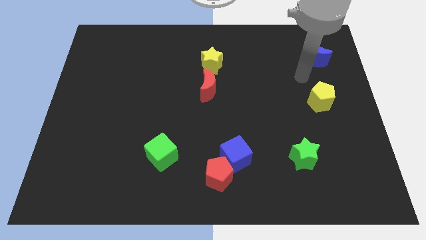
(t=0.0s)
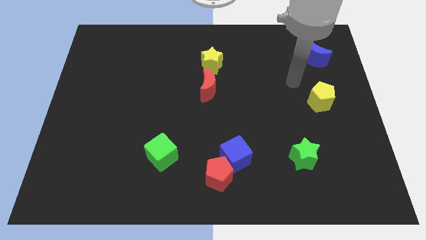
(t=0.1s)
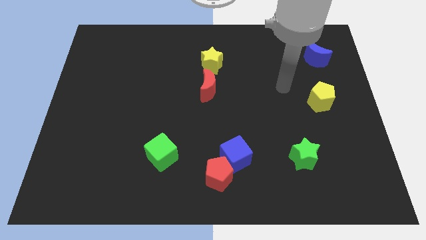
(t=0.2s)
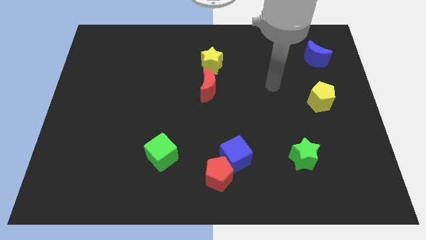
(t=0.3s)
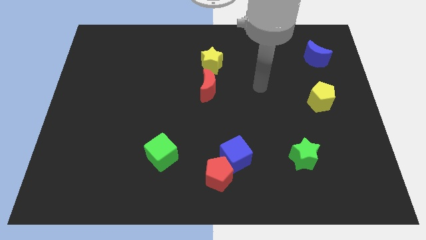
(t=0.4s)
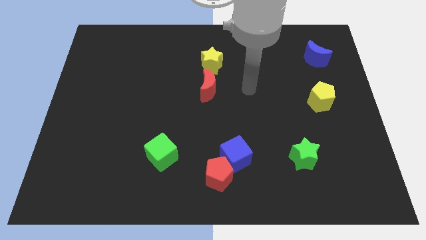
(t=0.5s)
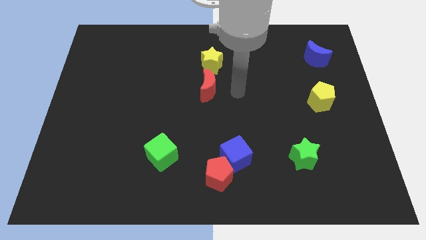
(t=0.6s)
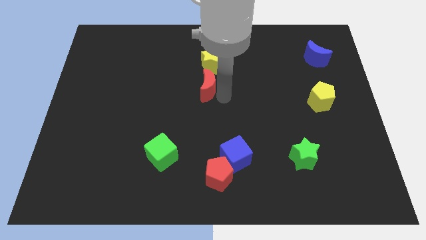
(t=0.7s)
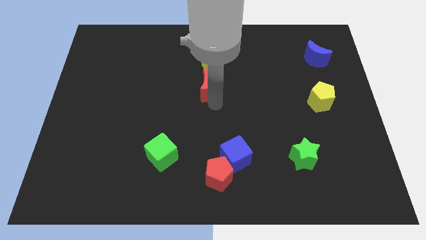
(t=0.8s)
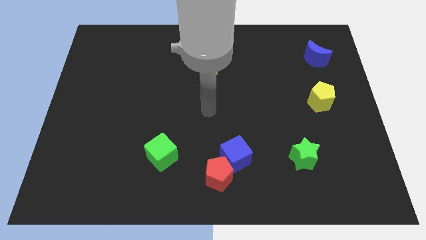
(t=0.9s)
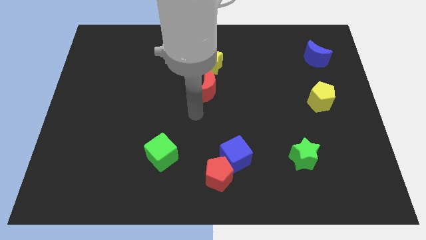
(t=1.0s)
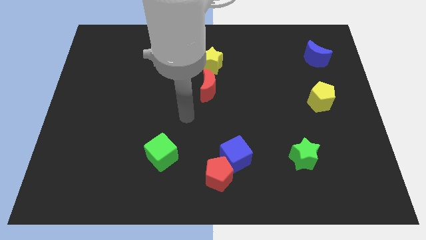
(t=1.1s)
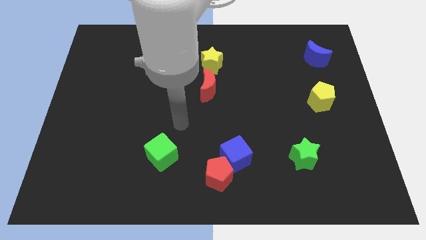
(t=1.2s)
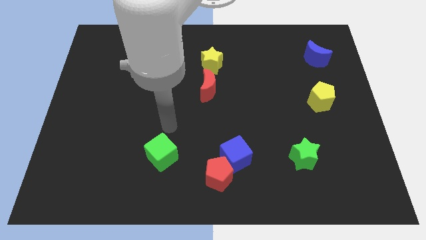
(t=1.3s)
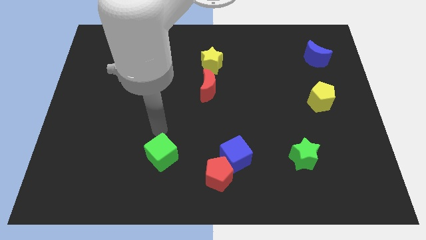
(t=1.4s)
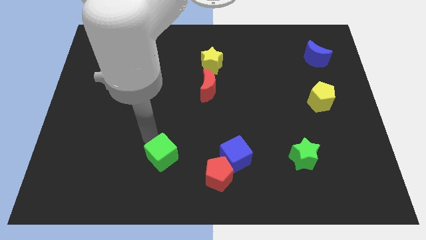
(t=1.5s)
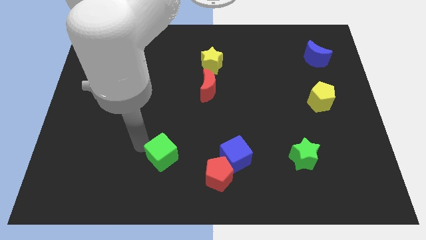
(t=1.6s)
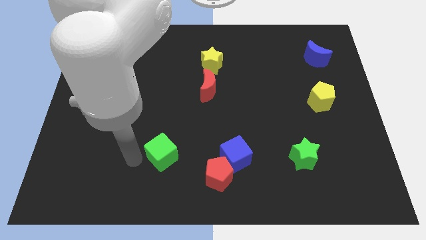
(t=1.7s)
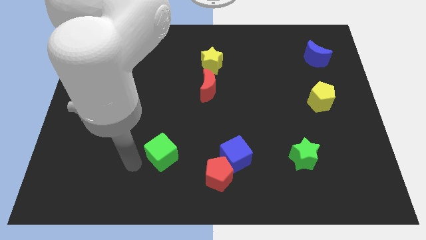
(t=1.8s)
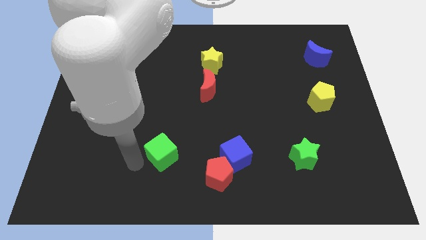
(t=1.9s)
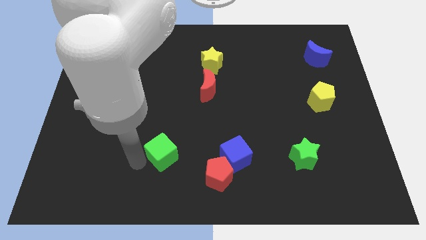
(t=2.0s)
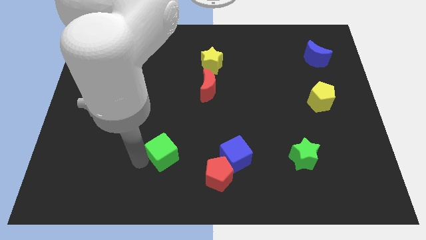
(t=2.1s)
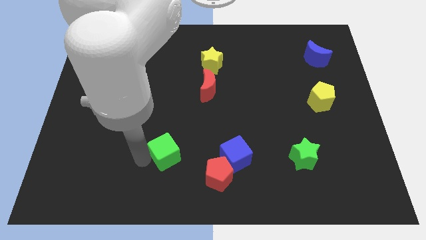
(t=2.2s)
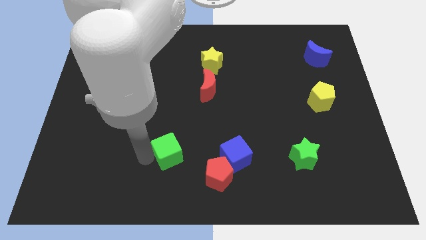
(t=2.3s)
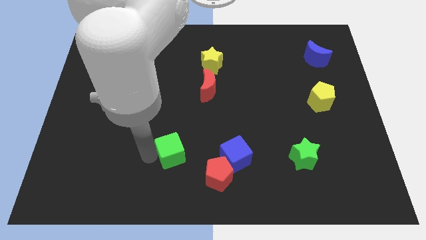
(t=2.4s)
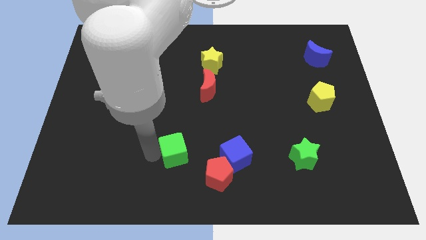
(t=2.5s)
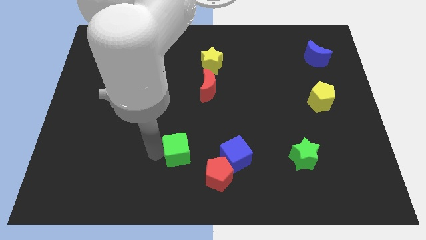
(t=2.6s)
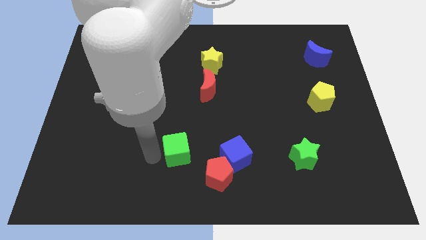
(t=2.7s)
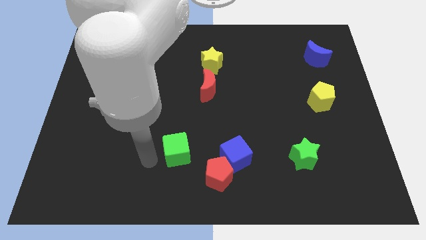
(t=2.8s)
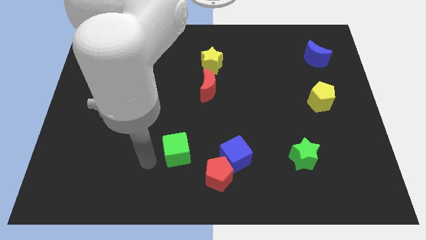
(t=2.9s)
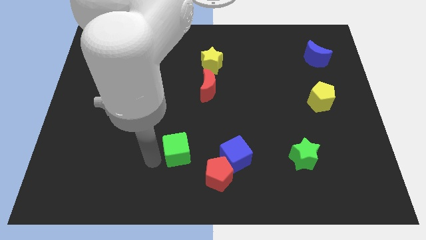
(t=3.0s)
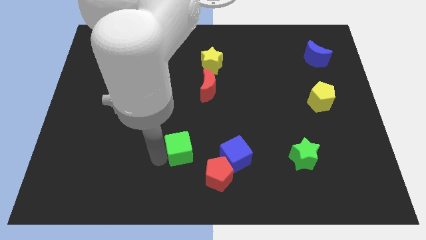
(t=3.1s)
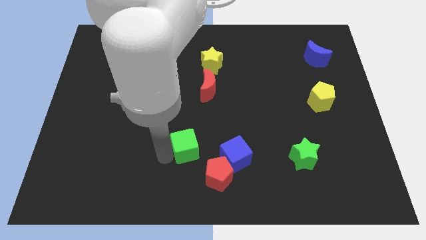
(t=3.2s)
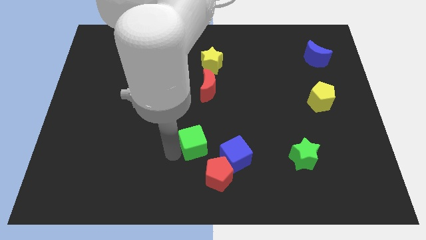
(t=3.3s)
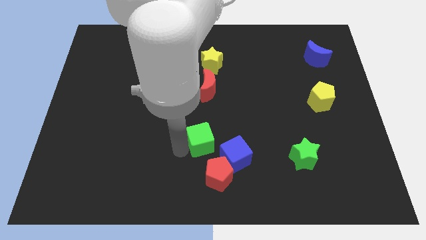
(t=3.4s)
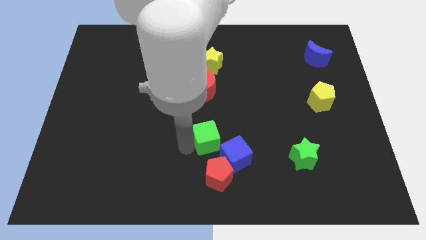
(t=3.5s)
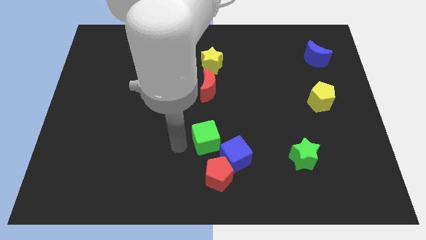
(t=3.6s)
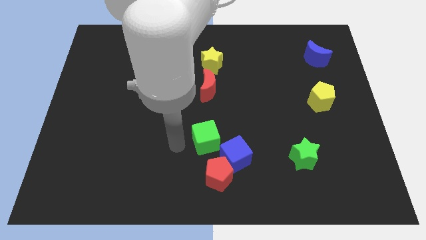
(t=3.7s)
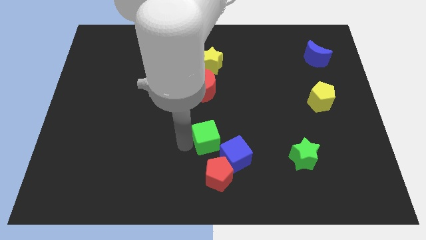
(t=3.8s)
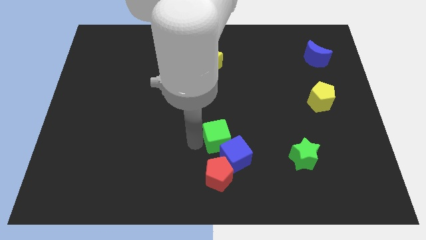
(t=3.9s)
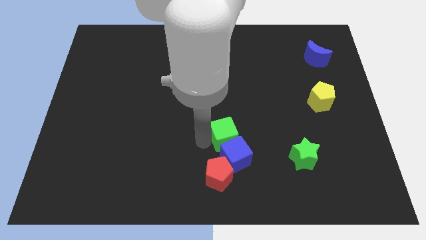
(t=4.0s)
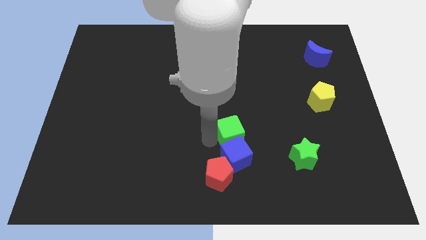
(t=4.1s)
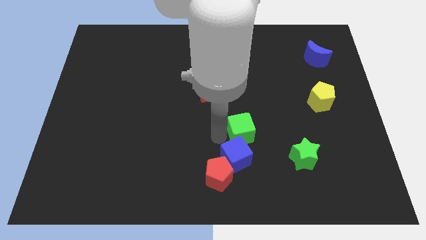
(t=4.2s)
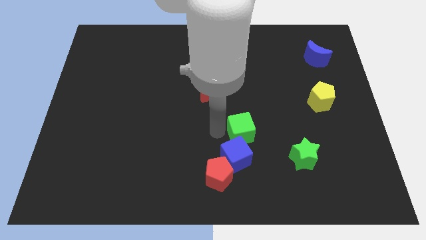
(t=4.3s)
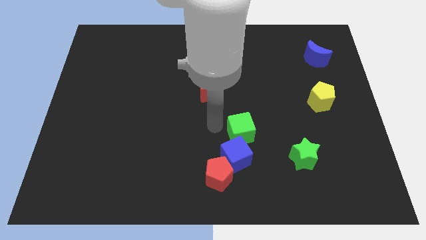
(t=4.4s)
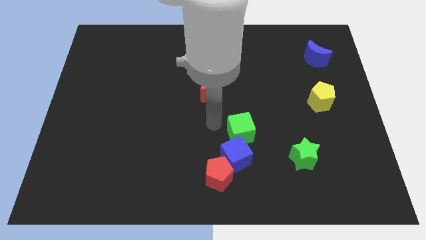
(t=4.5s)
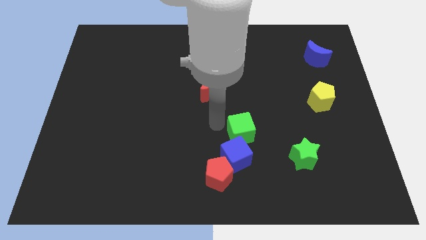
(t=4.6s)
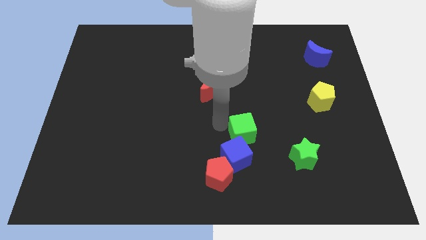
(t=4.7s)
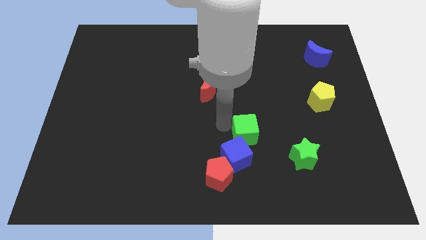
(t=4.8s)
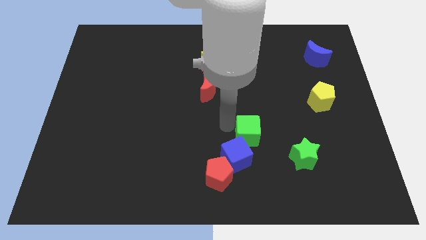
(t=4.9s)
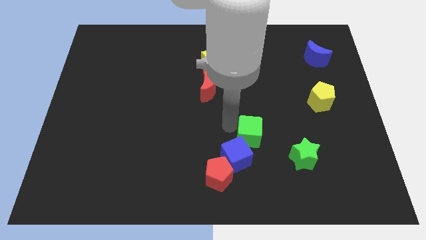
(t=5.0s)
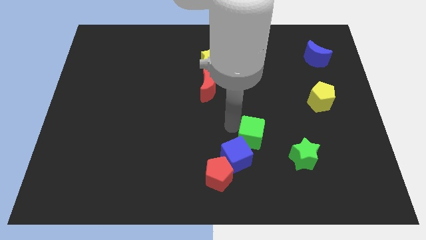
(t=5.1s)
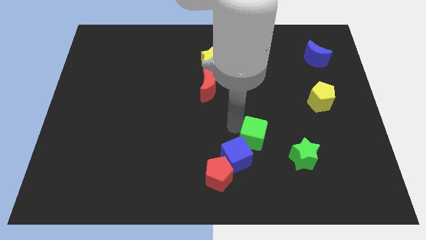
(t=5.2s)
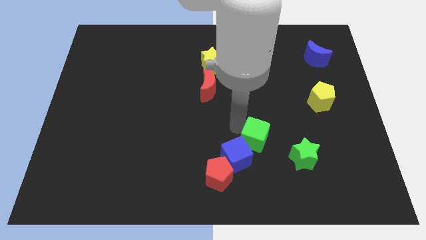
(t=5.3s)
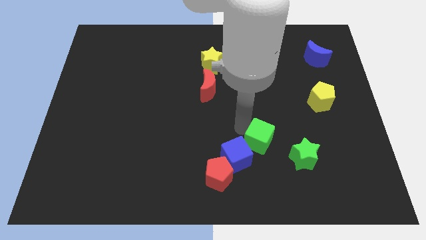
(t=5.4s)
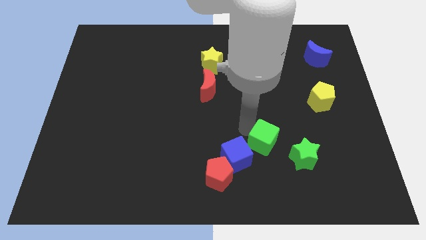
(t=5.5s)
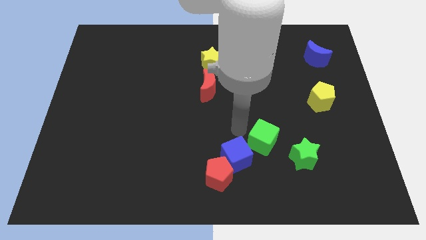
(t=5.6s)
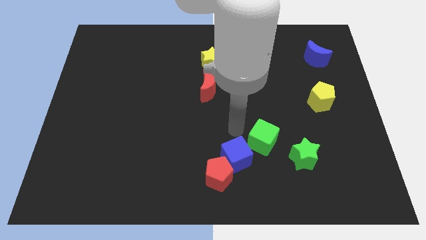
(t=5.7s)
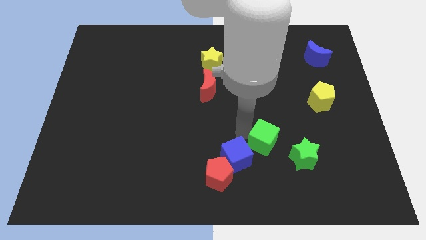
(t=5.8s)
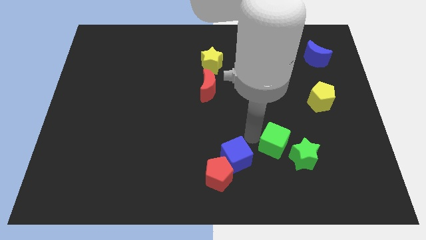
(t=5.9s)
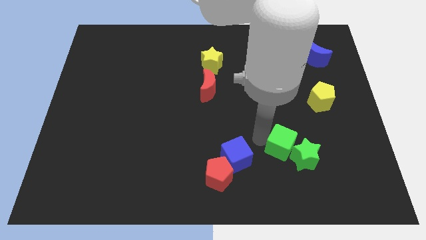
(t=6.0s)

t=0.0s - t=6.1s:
push the green cube towards the green star

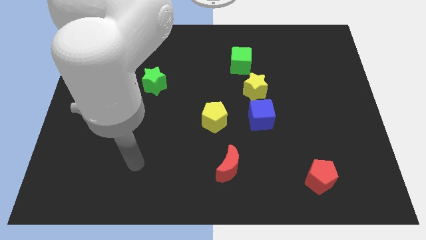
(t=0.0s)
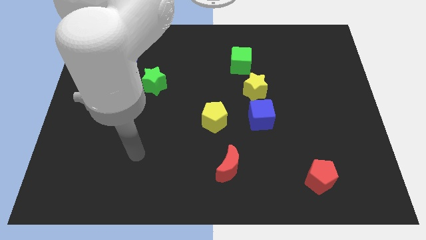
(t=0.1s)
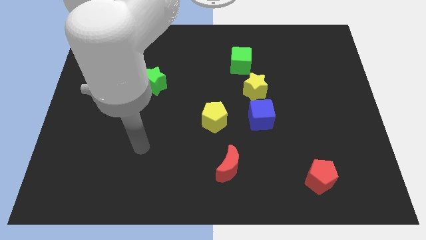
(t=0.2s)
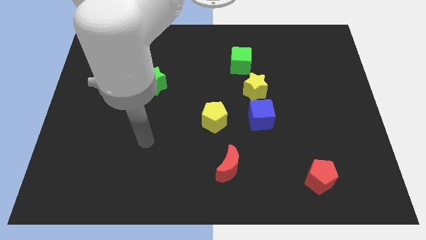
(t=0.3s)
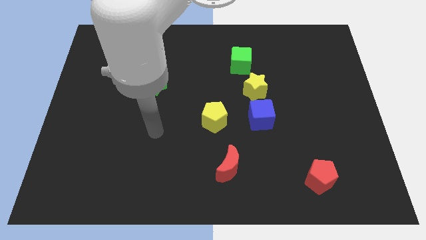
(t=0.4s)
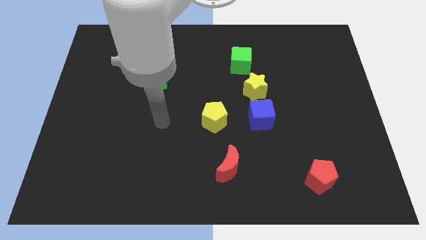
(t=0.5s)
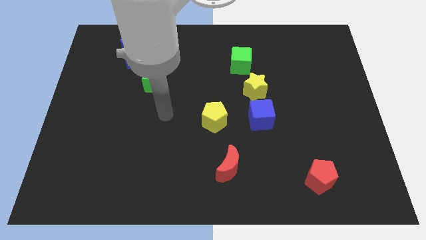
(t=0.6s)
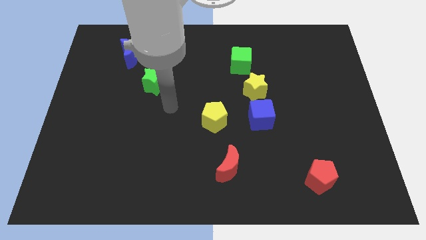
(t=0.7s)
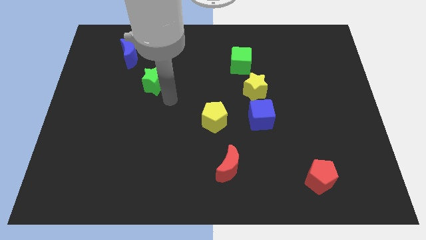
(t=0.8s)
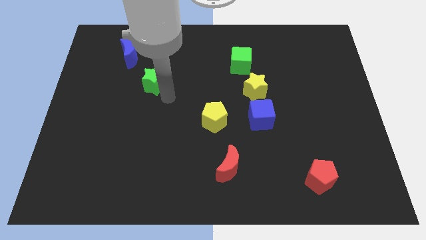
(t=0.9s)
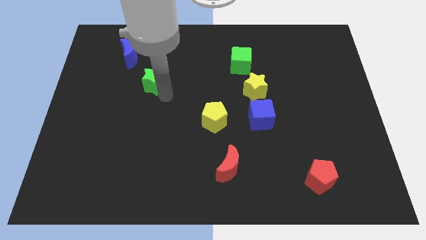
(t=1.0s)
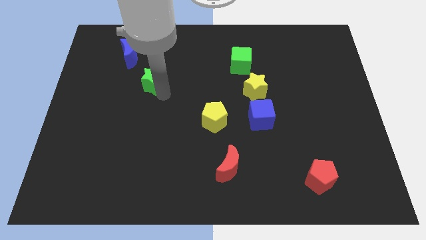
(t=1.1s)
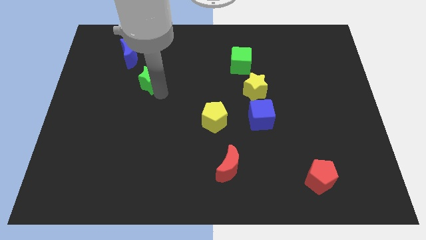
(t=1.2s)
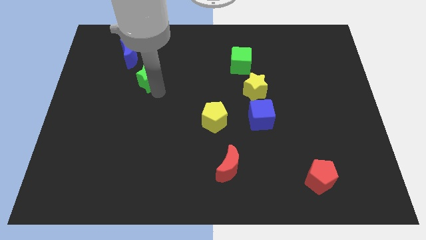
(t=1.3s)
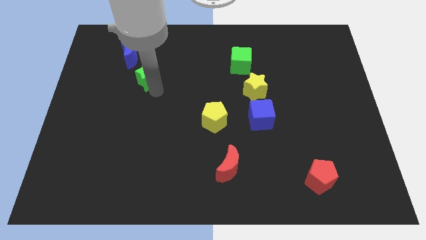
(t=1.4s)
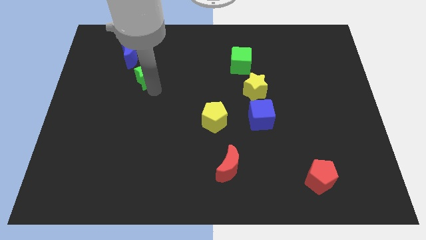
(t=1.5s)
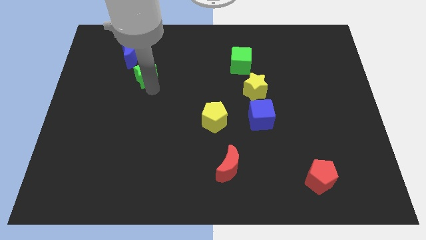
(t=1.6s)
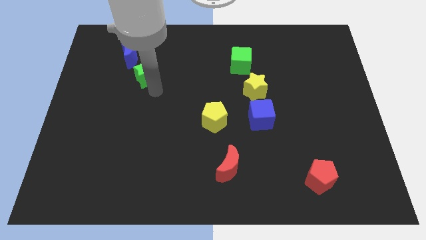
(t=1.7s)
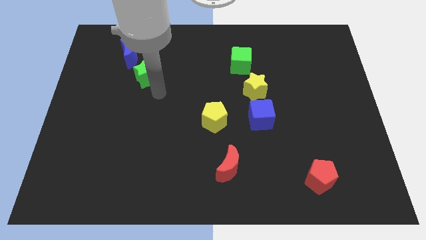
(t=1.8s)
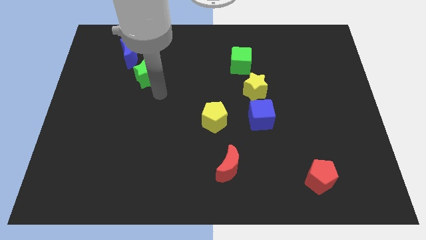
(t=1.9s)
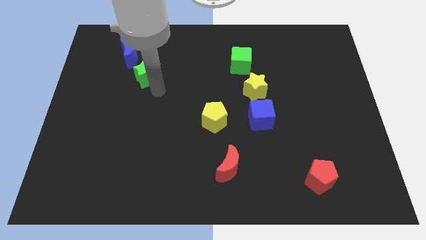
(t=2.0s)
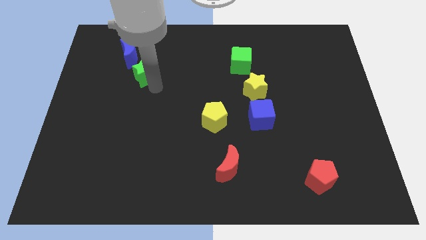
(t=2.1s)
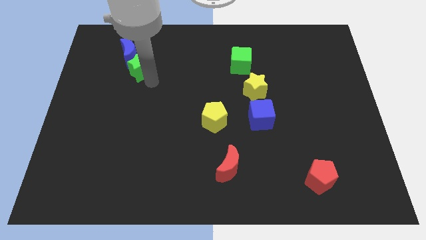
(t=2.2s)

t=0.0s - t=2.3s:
slide the green star next to the blue moon
